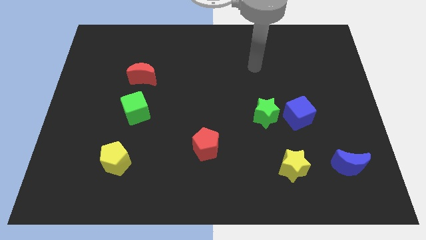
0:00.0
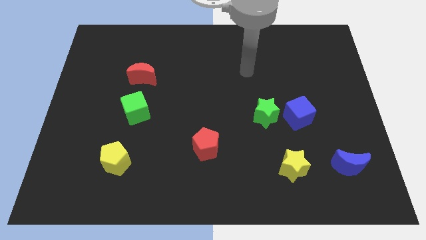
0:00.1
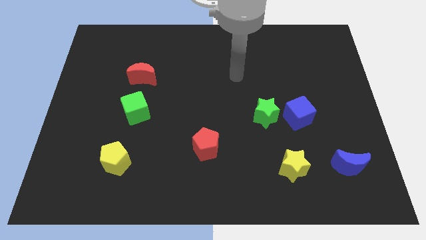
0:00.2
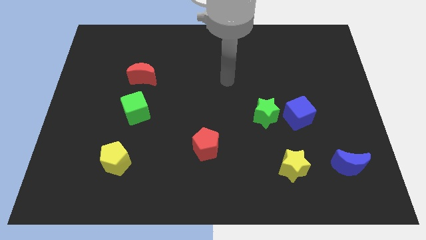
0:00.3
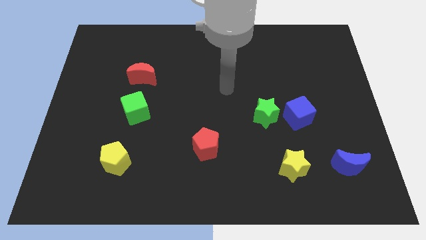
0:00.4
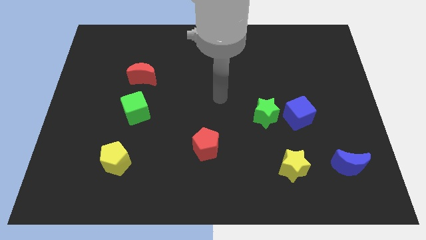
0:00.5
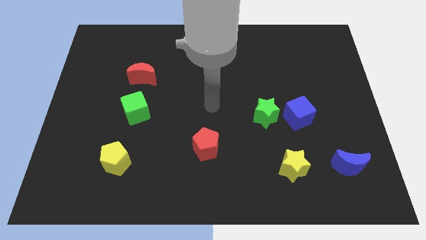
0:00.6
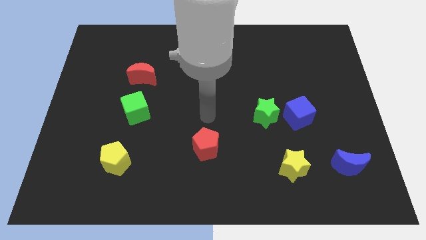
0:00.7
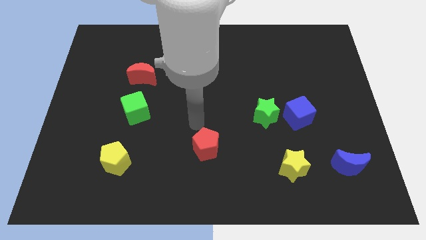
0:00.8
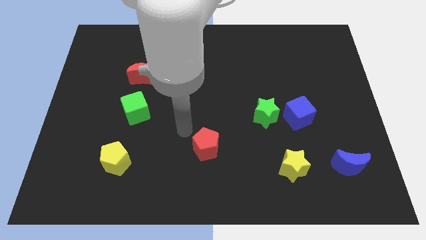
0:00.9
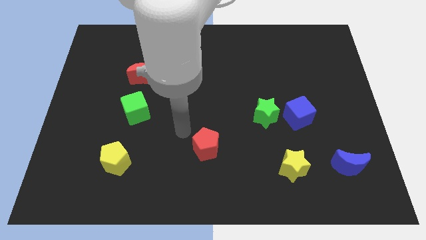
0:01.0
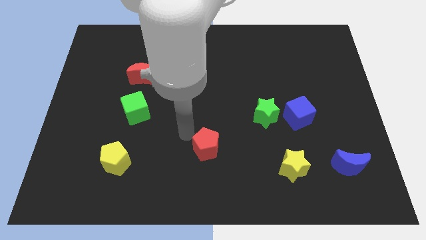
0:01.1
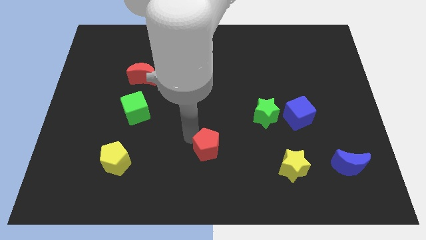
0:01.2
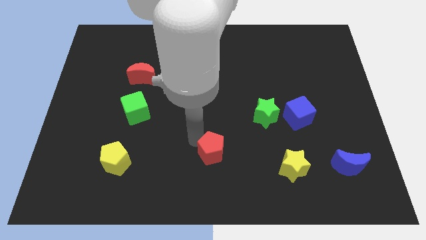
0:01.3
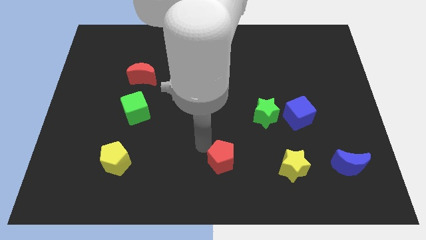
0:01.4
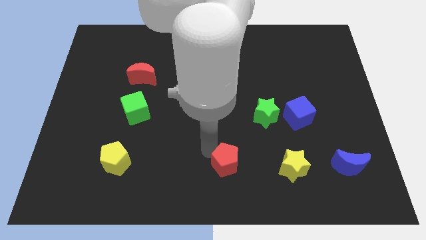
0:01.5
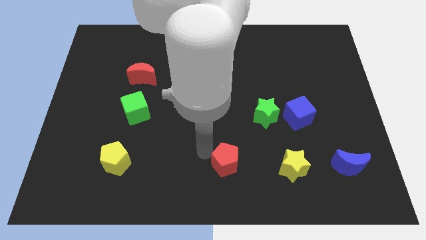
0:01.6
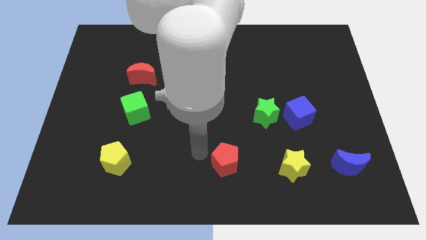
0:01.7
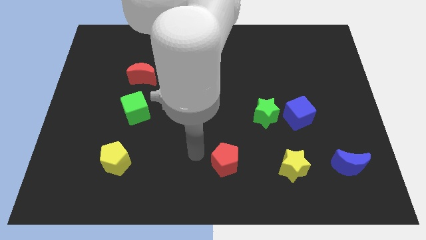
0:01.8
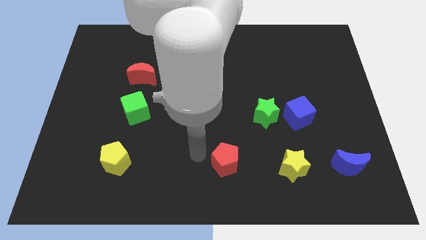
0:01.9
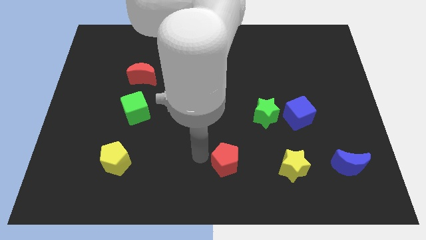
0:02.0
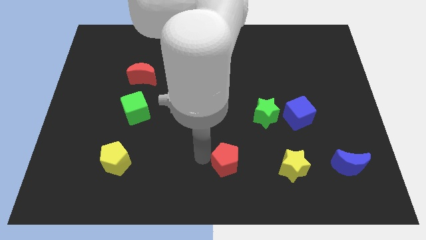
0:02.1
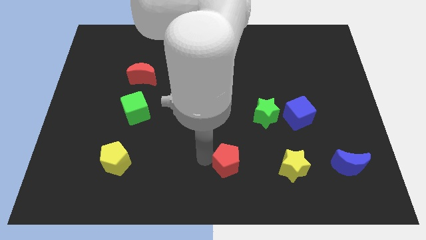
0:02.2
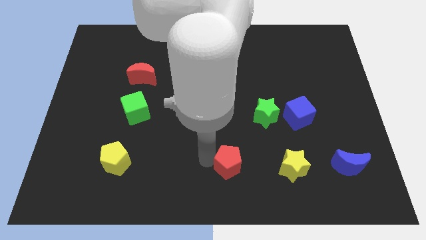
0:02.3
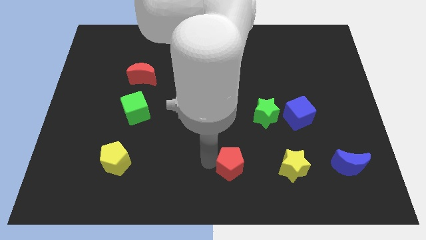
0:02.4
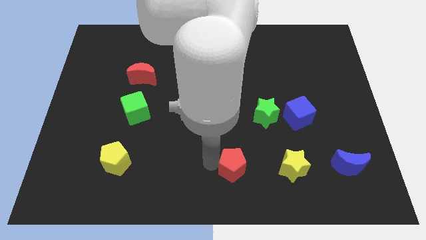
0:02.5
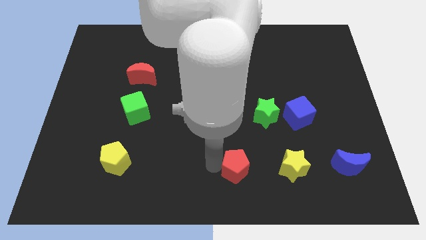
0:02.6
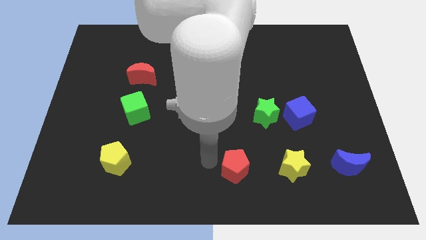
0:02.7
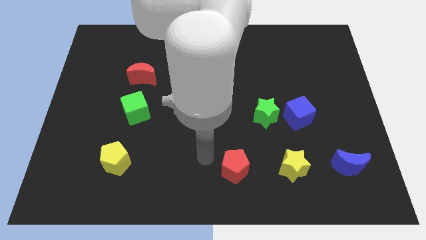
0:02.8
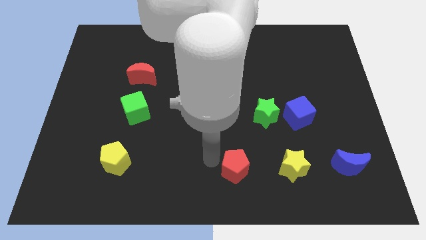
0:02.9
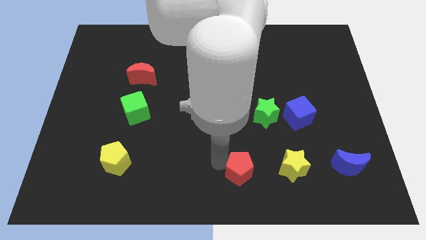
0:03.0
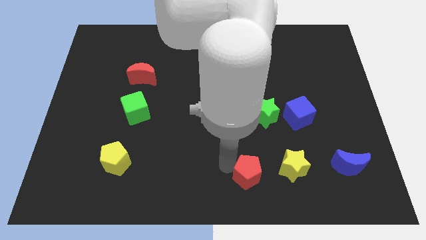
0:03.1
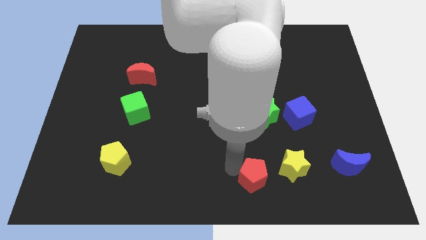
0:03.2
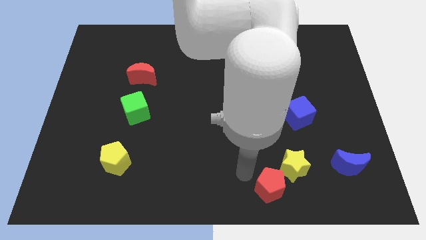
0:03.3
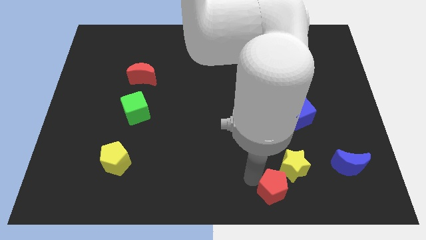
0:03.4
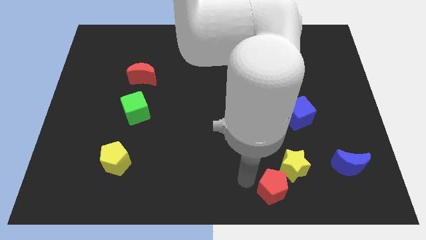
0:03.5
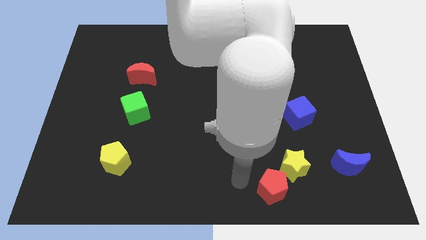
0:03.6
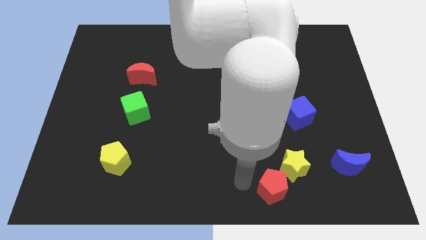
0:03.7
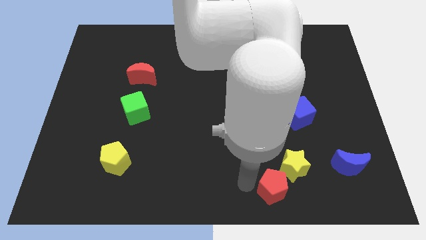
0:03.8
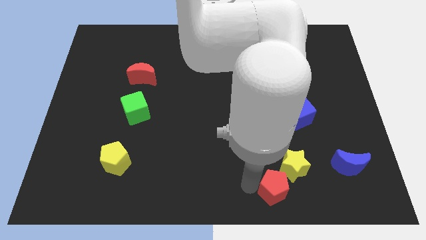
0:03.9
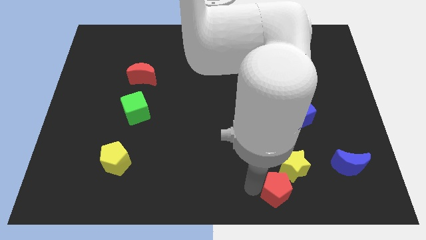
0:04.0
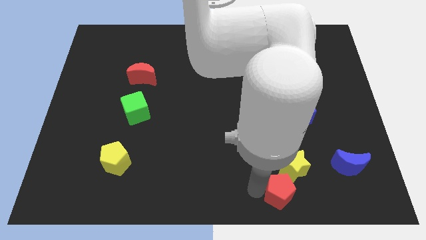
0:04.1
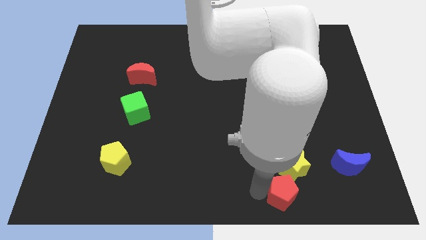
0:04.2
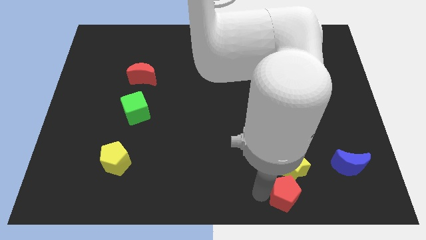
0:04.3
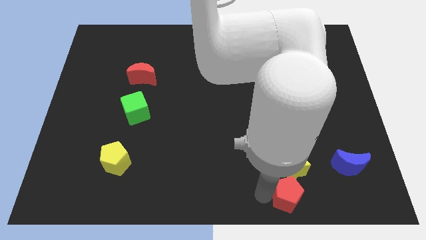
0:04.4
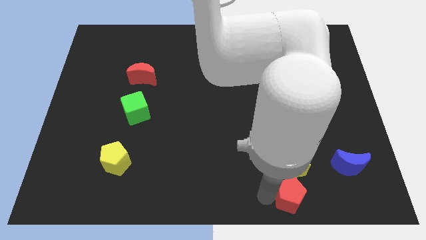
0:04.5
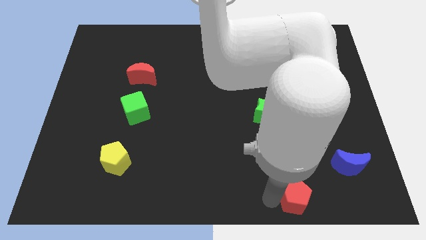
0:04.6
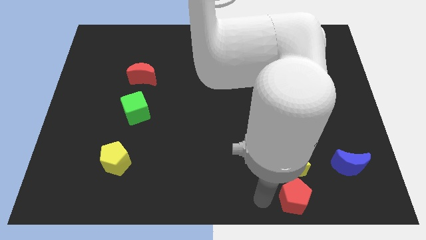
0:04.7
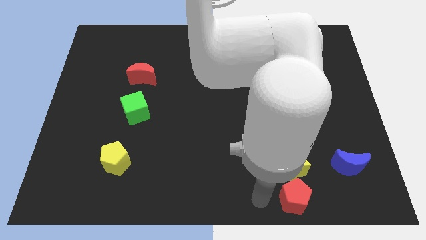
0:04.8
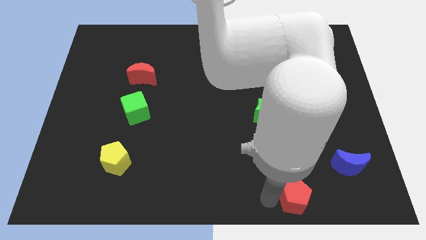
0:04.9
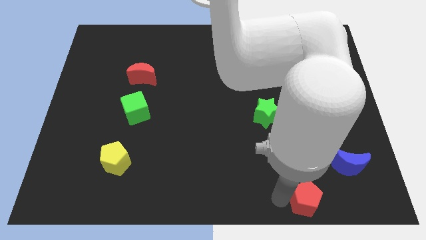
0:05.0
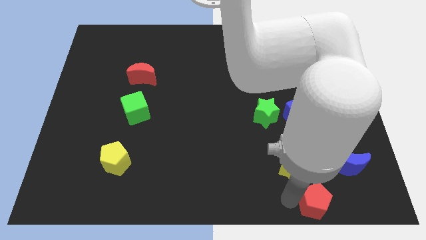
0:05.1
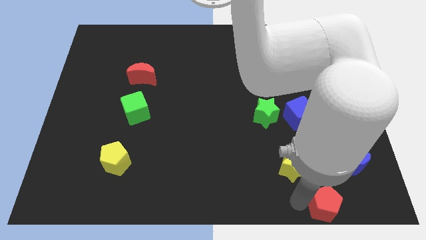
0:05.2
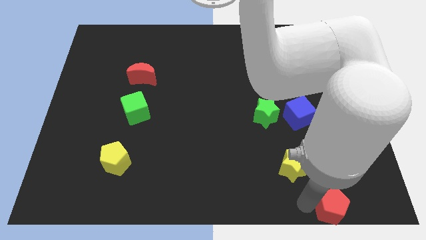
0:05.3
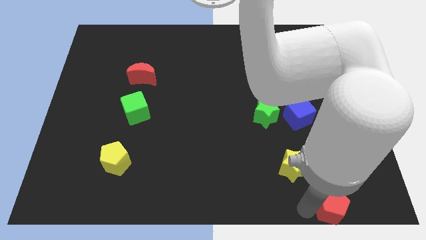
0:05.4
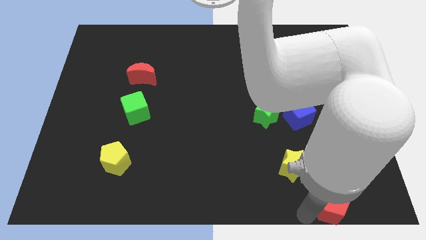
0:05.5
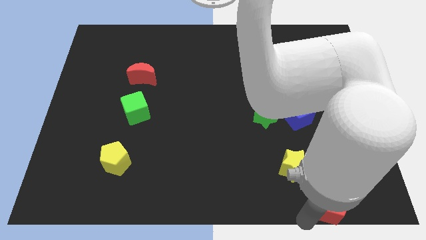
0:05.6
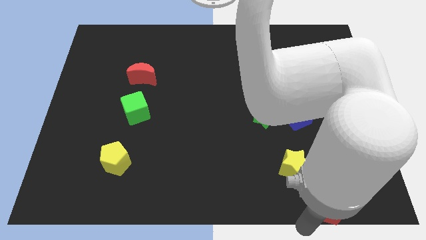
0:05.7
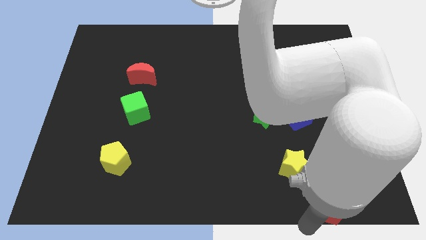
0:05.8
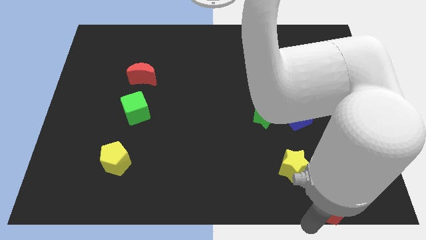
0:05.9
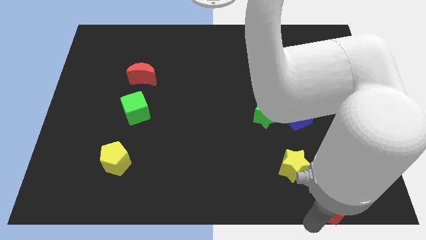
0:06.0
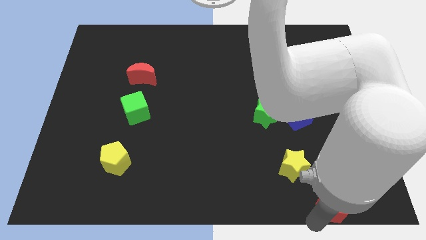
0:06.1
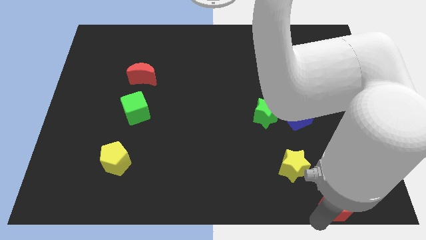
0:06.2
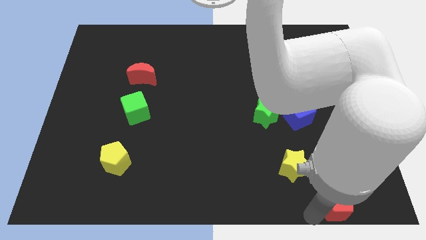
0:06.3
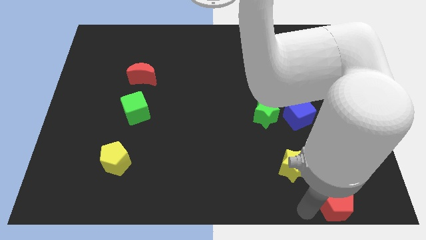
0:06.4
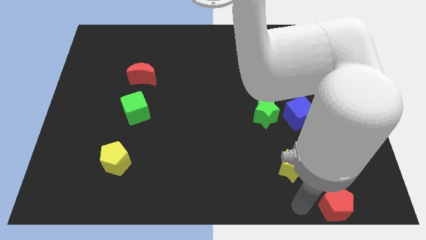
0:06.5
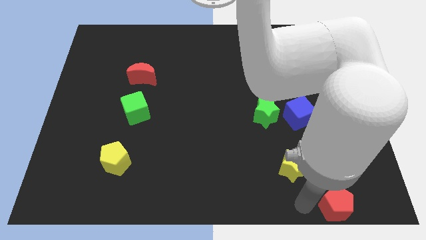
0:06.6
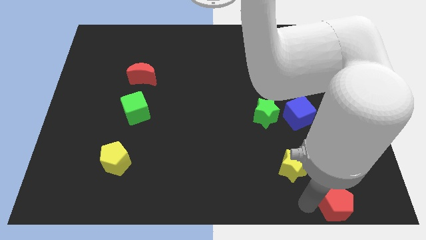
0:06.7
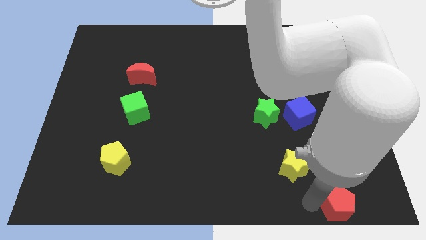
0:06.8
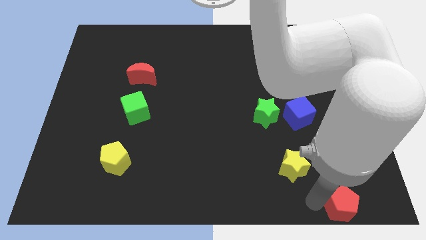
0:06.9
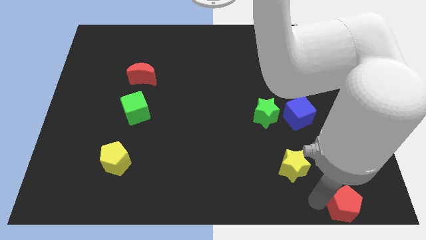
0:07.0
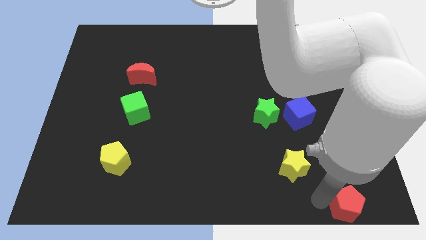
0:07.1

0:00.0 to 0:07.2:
move the red pentagon to the bottom right of the board
